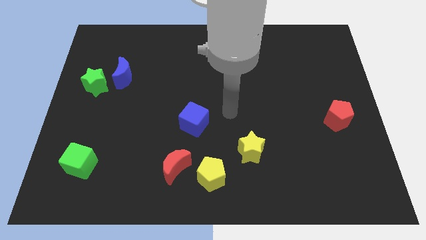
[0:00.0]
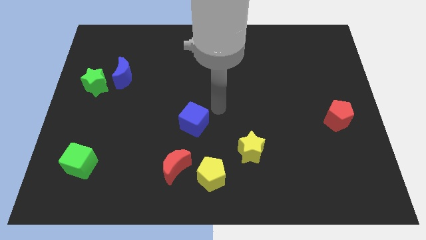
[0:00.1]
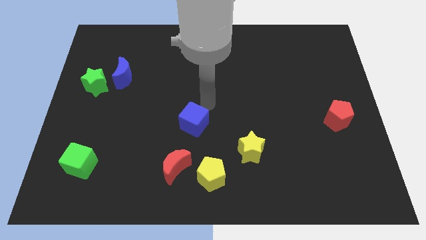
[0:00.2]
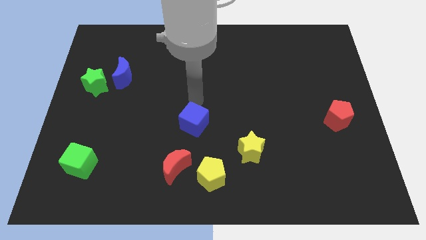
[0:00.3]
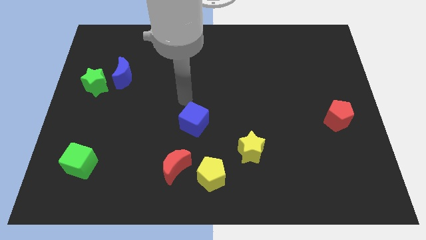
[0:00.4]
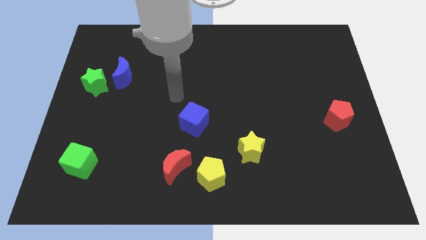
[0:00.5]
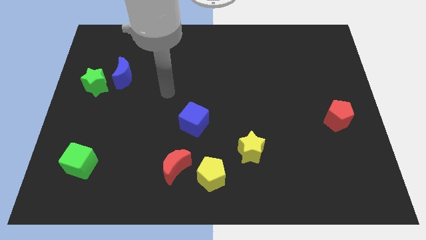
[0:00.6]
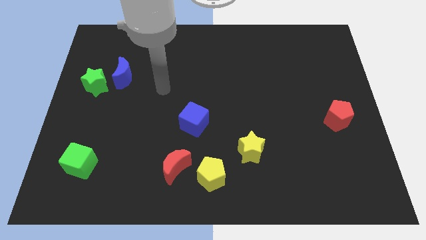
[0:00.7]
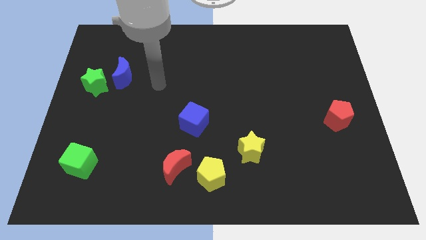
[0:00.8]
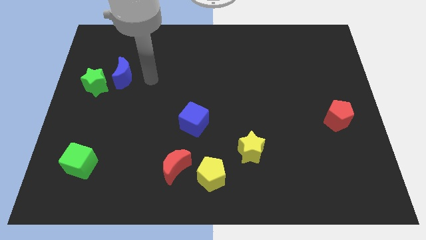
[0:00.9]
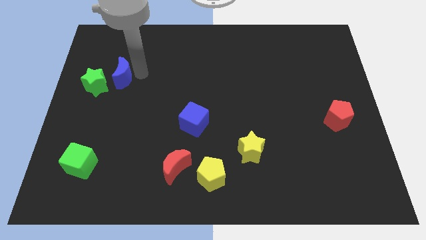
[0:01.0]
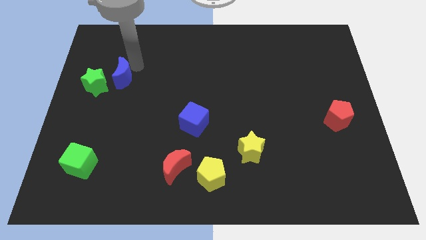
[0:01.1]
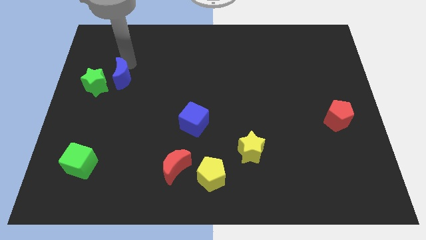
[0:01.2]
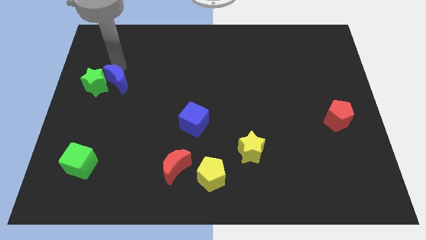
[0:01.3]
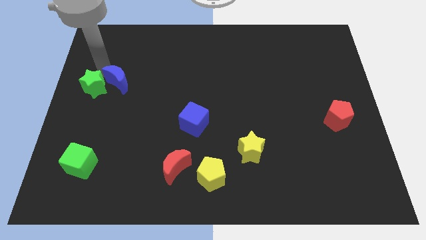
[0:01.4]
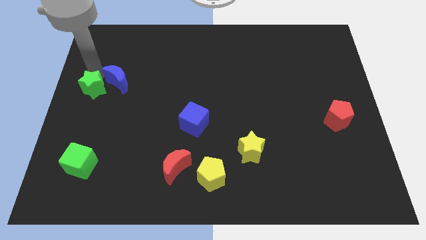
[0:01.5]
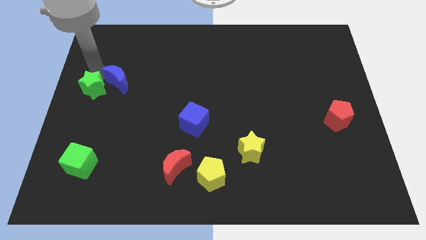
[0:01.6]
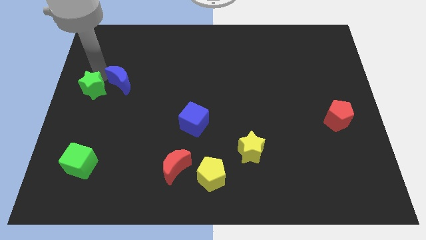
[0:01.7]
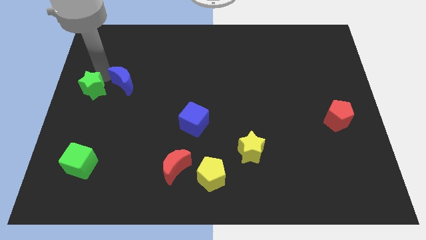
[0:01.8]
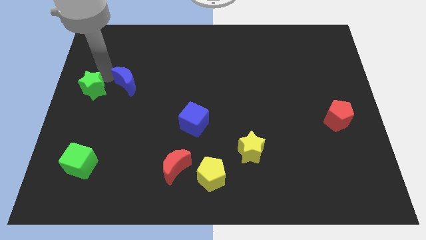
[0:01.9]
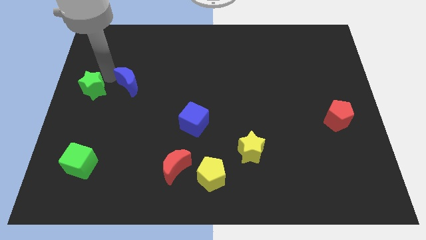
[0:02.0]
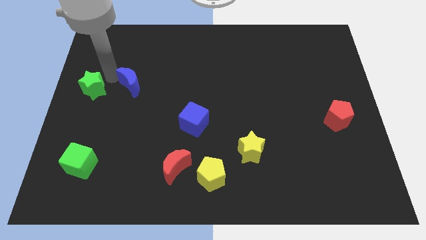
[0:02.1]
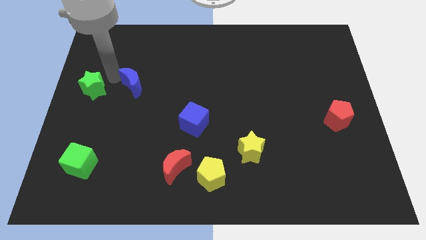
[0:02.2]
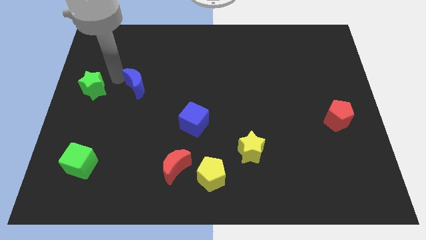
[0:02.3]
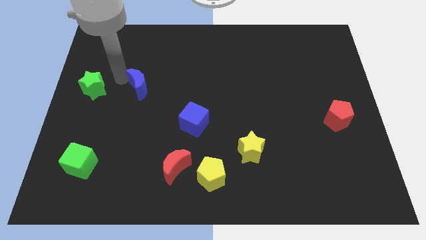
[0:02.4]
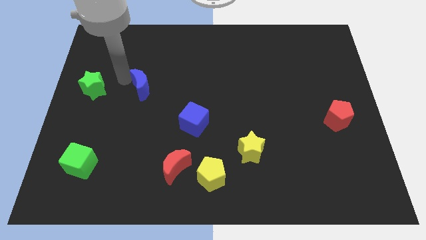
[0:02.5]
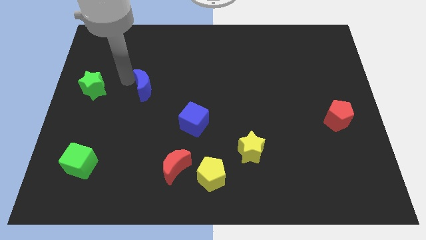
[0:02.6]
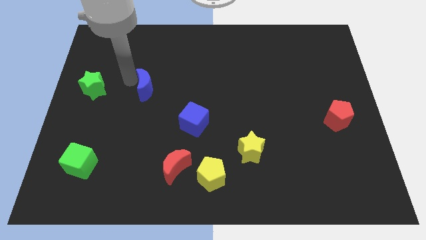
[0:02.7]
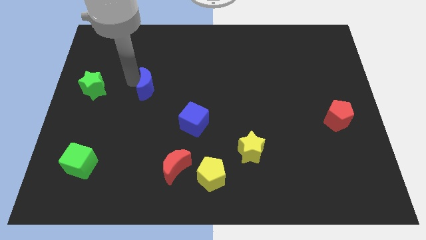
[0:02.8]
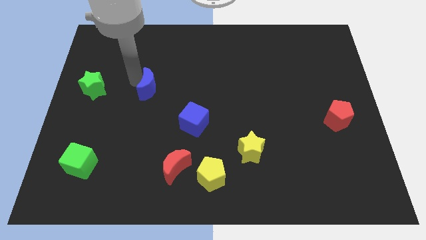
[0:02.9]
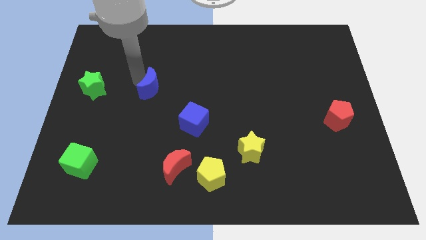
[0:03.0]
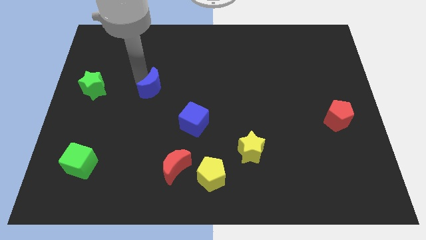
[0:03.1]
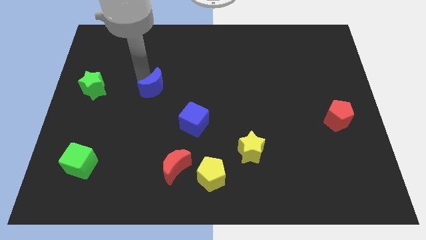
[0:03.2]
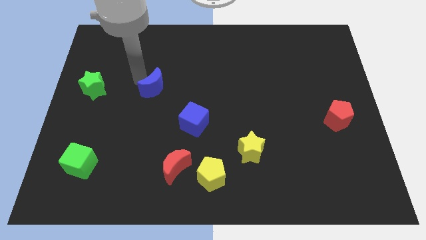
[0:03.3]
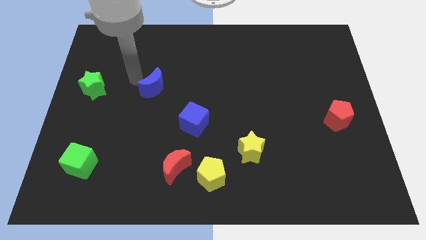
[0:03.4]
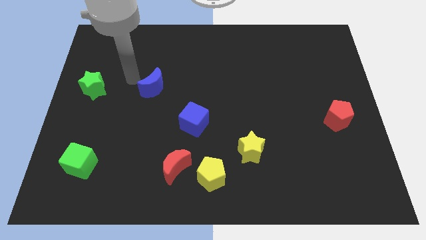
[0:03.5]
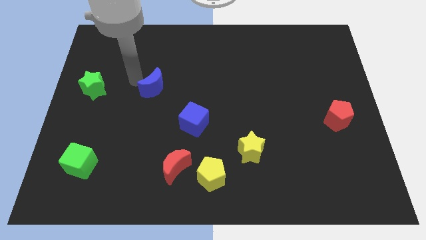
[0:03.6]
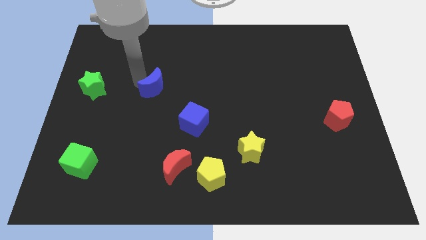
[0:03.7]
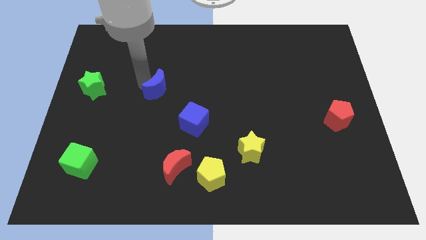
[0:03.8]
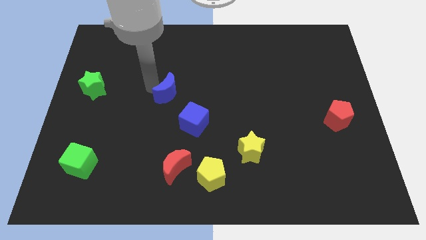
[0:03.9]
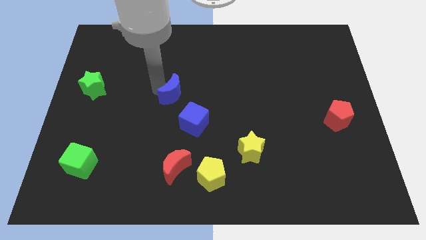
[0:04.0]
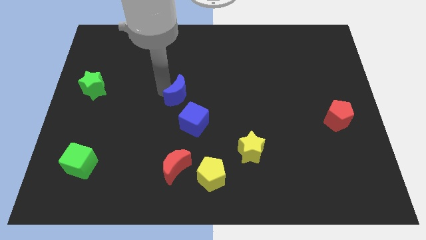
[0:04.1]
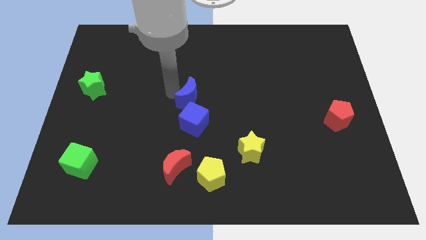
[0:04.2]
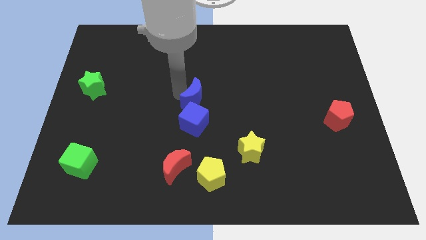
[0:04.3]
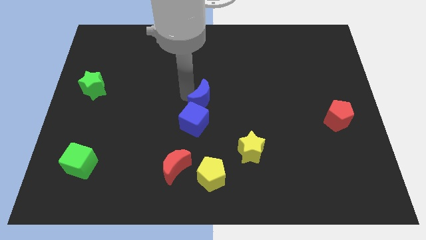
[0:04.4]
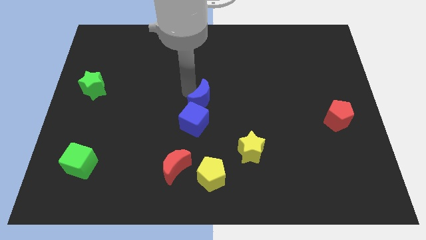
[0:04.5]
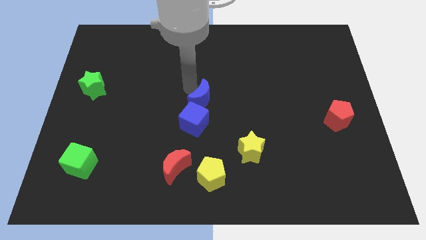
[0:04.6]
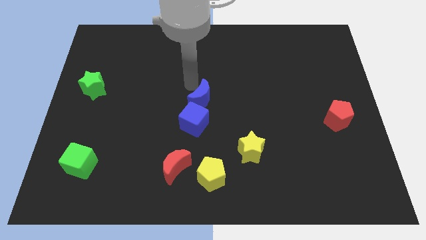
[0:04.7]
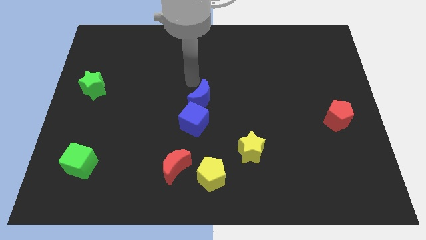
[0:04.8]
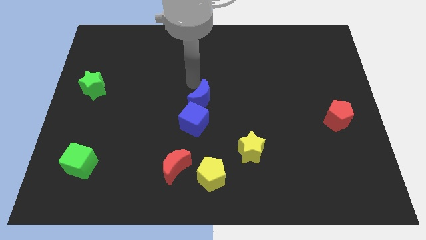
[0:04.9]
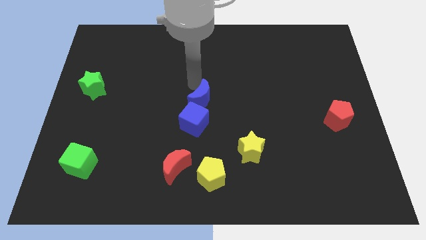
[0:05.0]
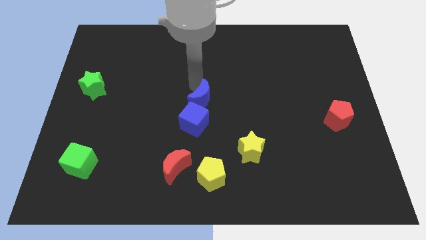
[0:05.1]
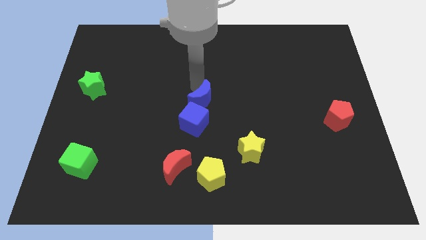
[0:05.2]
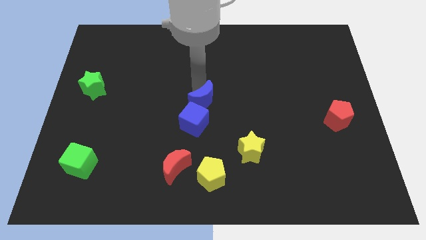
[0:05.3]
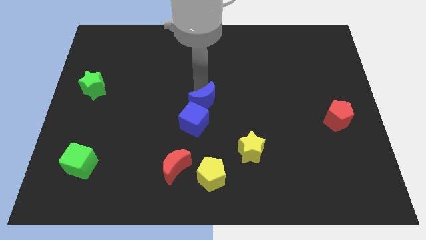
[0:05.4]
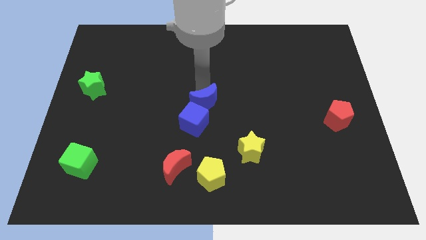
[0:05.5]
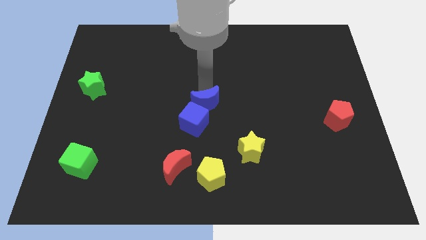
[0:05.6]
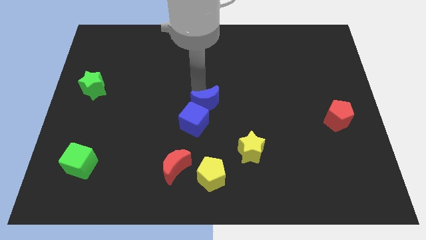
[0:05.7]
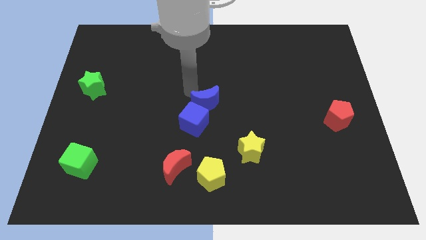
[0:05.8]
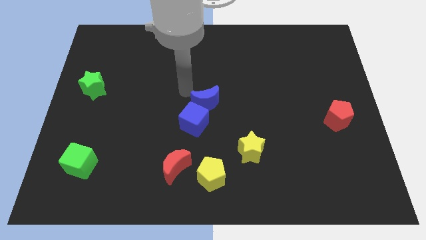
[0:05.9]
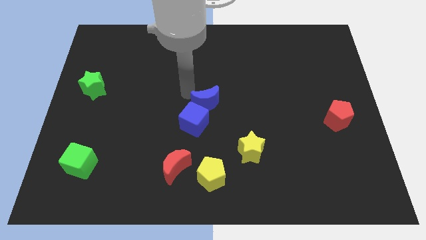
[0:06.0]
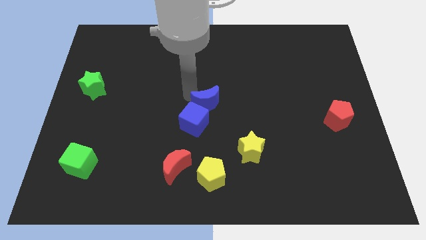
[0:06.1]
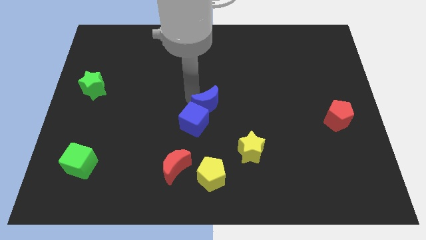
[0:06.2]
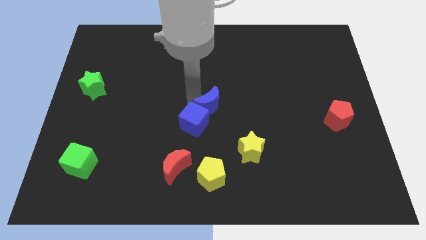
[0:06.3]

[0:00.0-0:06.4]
slide the blue moon just right of the blue cube
